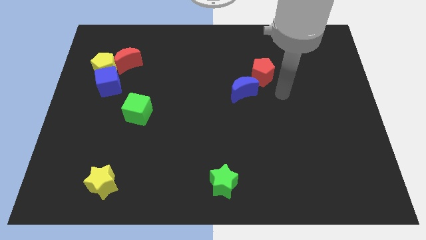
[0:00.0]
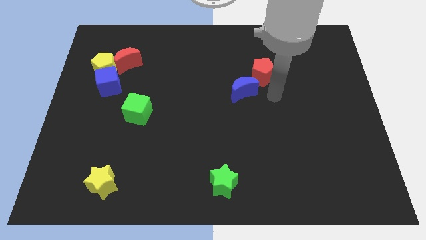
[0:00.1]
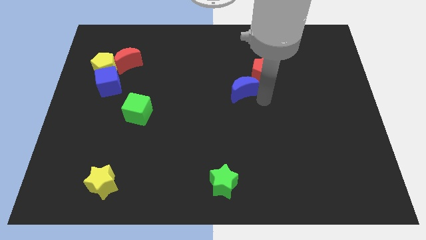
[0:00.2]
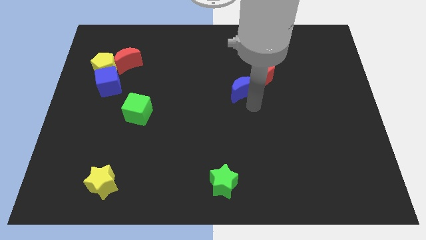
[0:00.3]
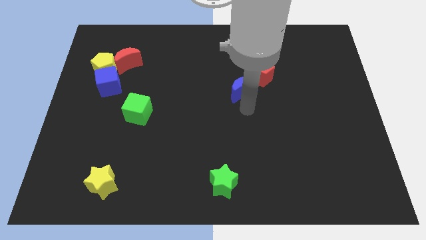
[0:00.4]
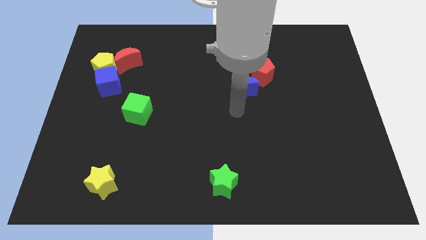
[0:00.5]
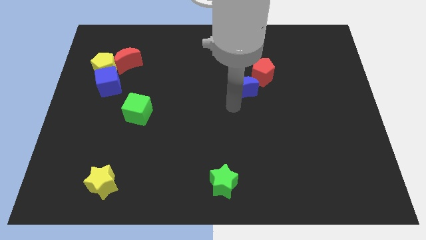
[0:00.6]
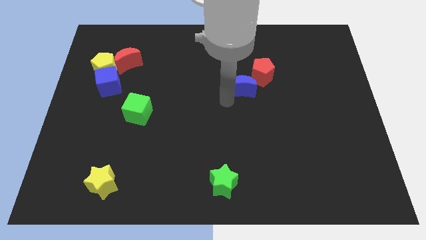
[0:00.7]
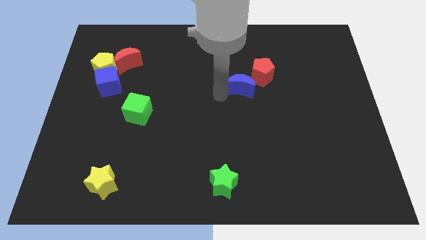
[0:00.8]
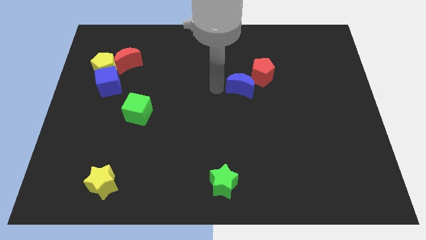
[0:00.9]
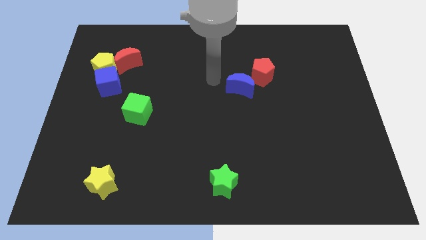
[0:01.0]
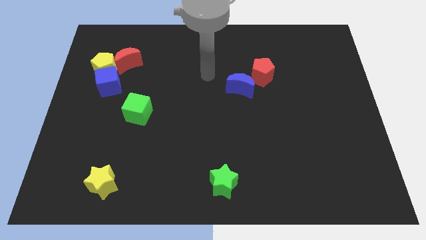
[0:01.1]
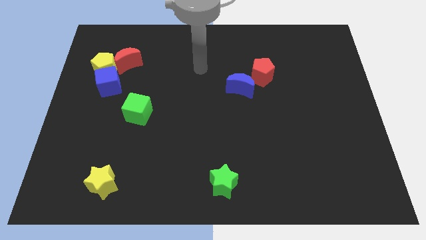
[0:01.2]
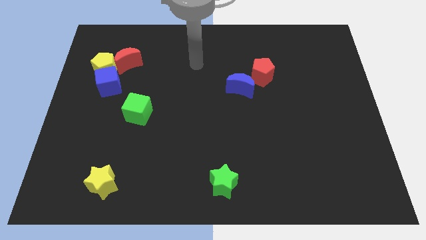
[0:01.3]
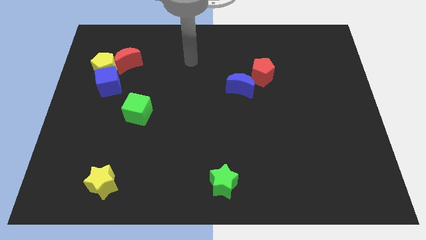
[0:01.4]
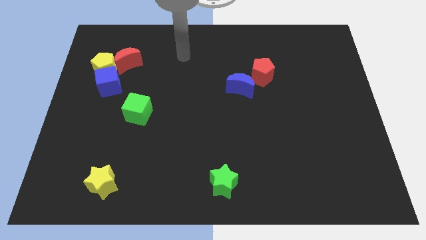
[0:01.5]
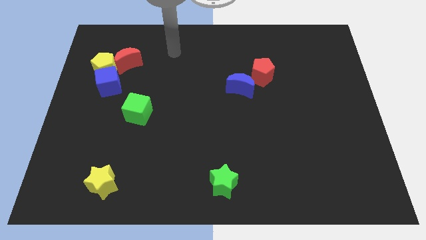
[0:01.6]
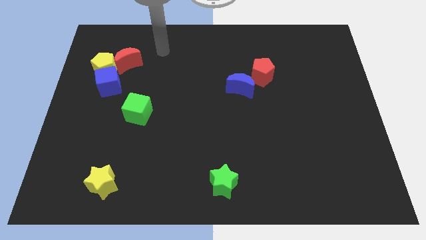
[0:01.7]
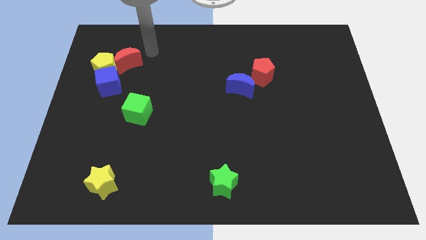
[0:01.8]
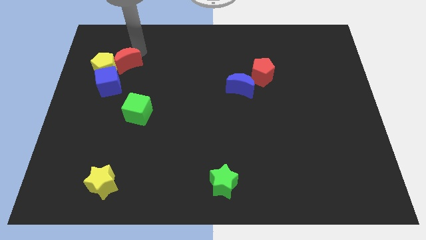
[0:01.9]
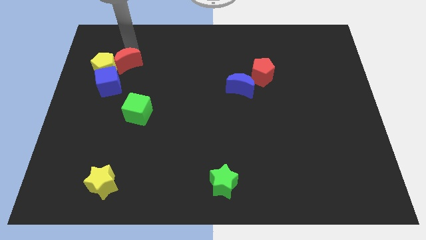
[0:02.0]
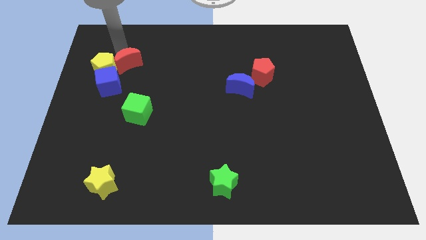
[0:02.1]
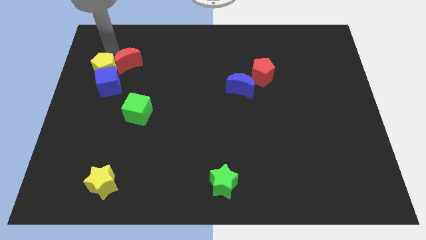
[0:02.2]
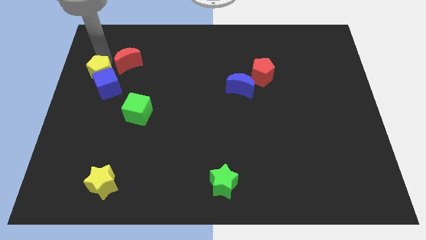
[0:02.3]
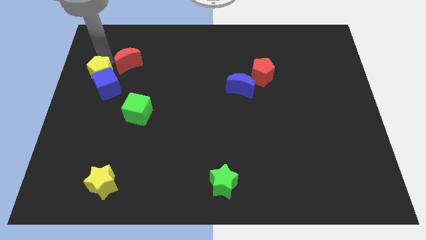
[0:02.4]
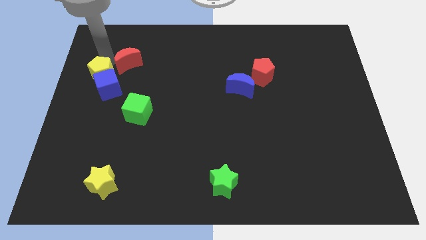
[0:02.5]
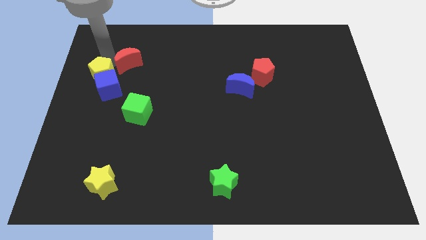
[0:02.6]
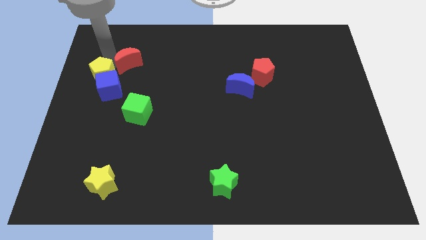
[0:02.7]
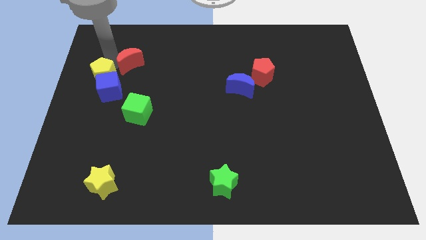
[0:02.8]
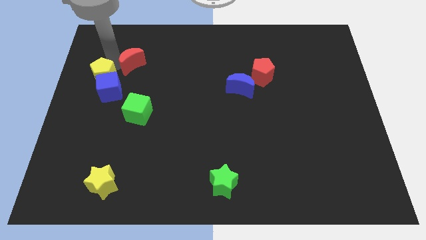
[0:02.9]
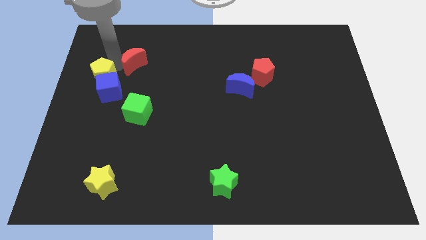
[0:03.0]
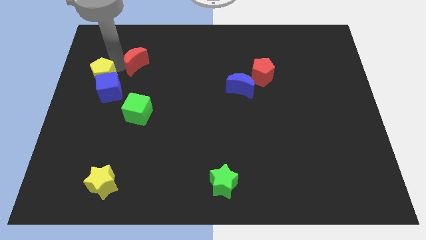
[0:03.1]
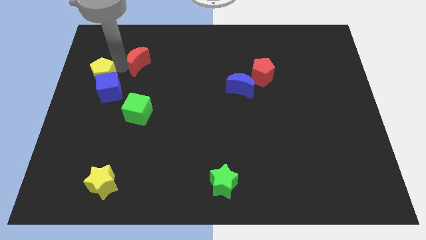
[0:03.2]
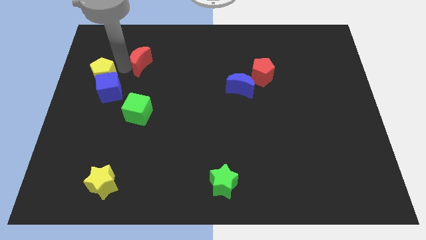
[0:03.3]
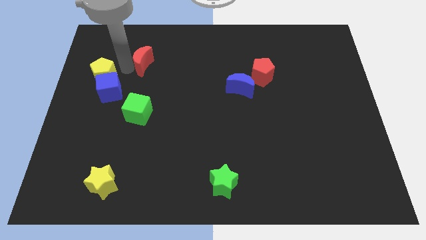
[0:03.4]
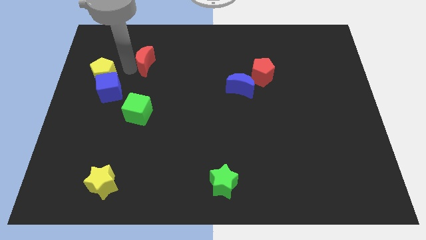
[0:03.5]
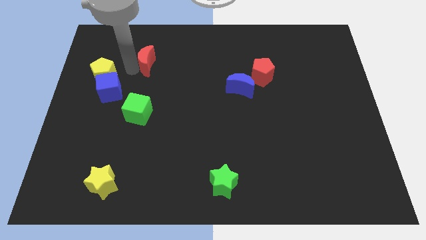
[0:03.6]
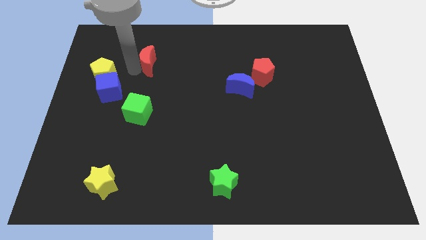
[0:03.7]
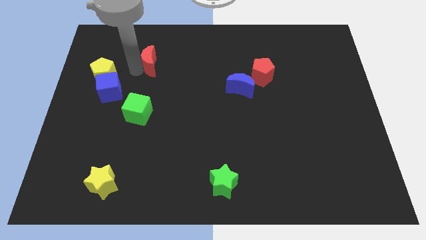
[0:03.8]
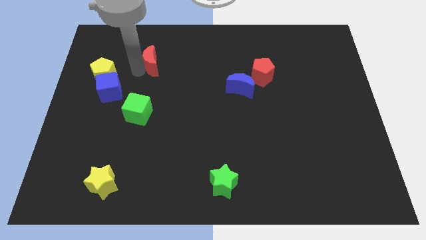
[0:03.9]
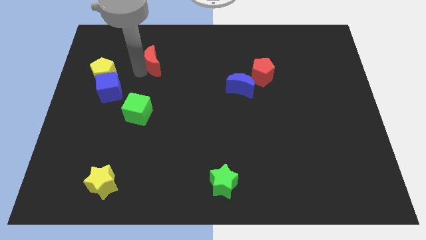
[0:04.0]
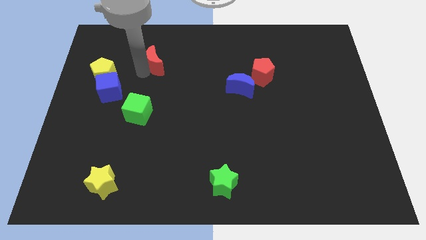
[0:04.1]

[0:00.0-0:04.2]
slide the red moon right slightly

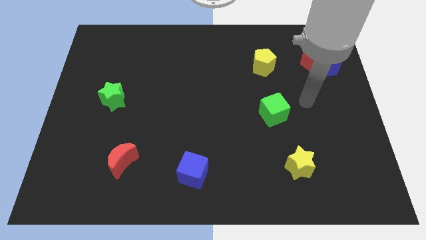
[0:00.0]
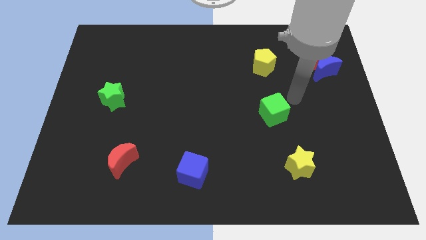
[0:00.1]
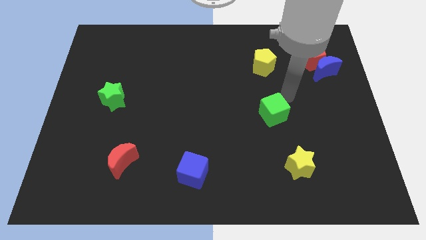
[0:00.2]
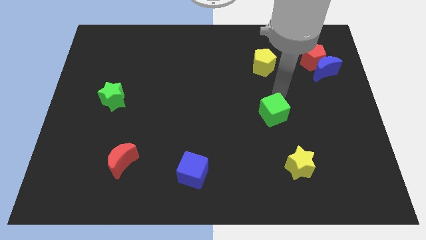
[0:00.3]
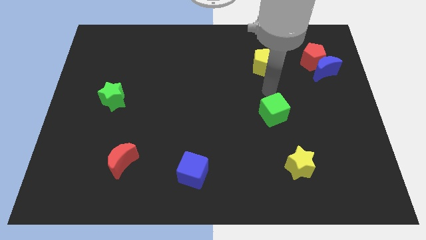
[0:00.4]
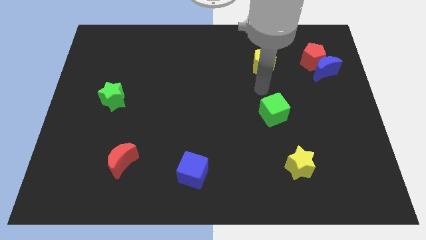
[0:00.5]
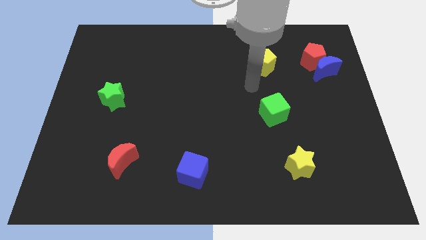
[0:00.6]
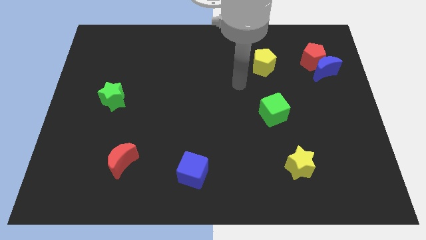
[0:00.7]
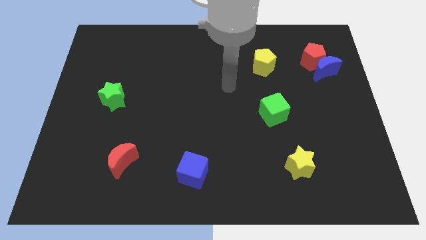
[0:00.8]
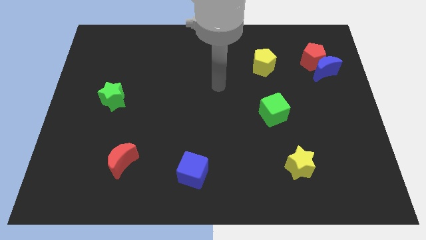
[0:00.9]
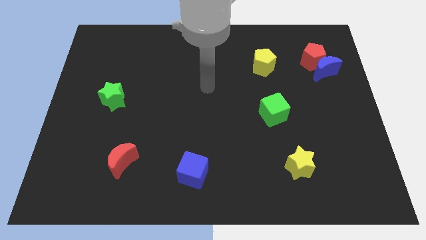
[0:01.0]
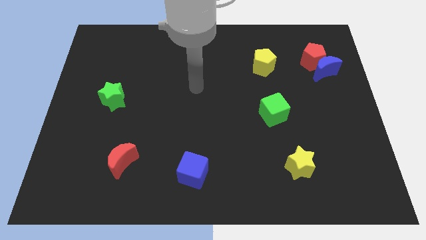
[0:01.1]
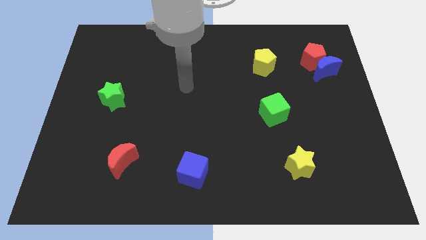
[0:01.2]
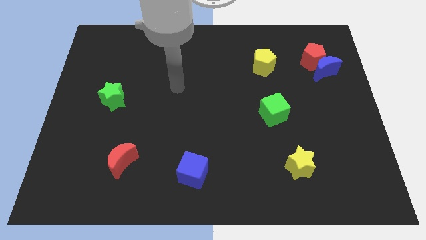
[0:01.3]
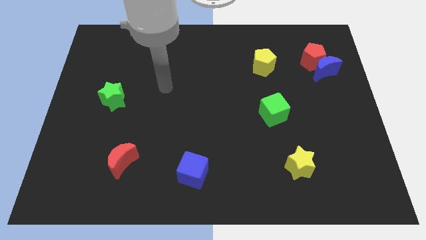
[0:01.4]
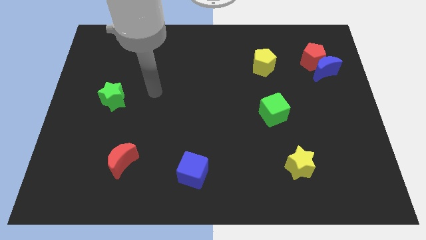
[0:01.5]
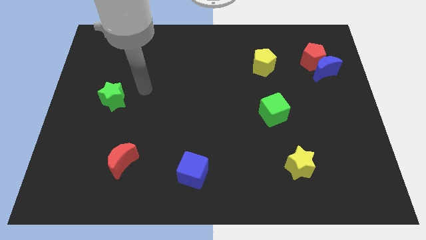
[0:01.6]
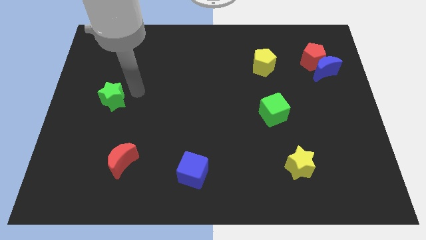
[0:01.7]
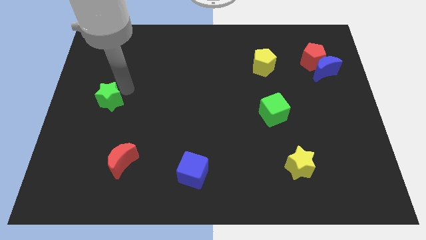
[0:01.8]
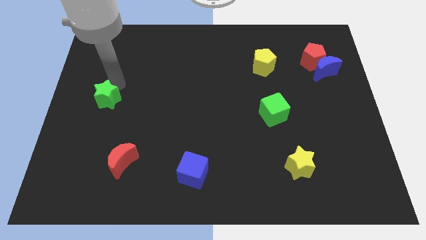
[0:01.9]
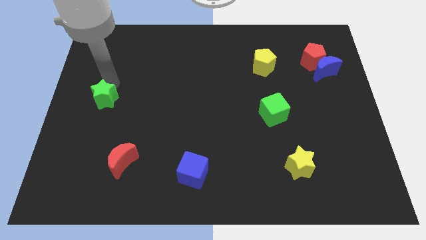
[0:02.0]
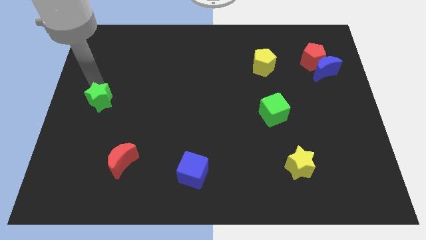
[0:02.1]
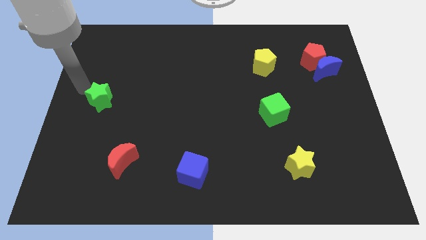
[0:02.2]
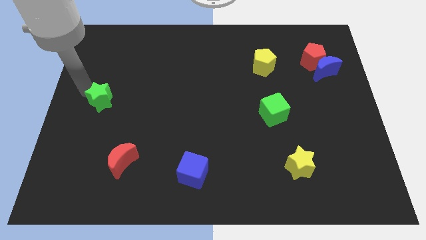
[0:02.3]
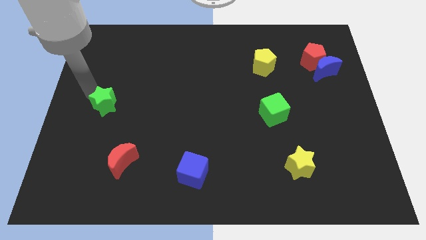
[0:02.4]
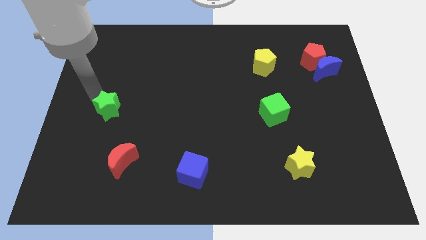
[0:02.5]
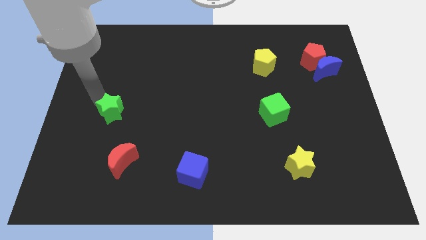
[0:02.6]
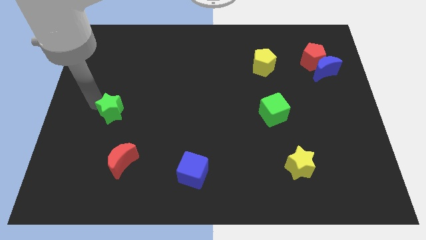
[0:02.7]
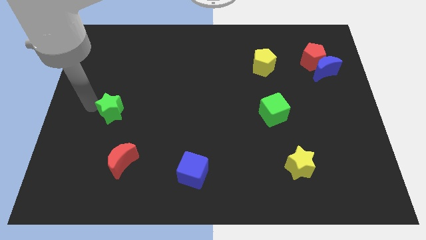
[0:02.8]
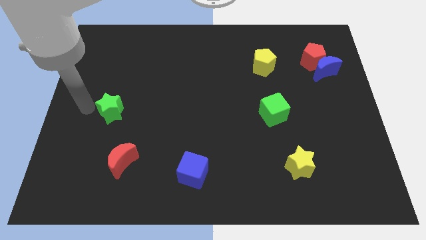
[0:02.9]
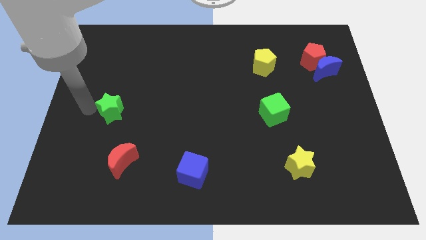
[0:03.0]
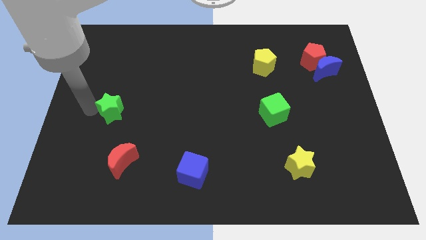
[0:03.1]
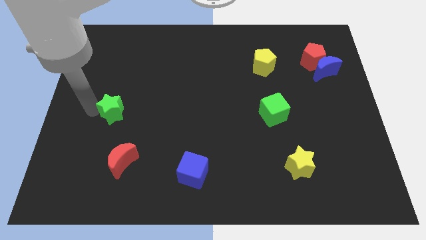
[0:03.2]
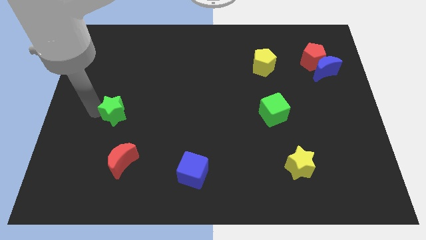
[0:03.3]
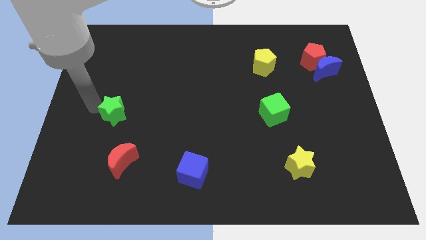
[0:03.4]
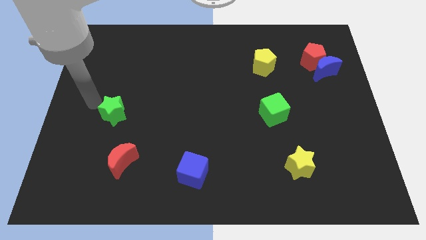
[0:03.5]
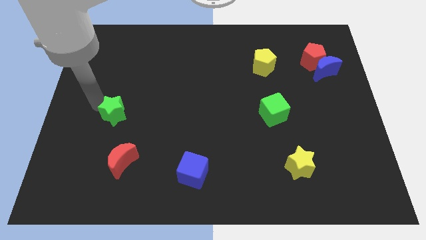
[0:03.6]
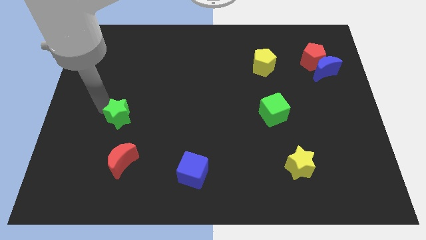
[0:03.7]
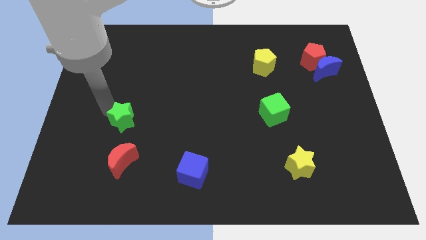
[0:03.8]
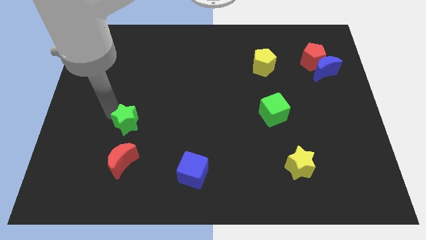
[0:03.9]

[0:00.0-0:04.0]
push the green star somewhat downwards and then to the right

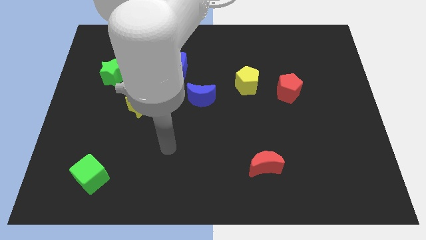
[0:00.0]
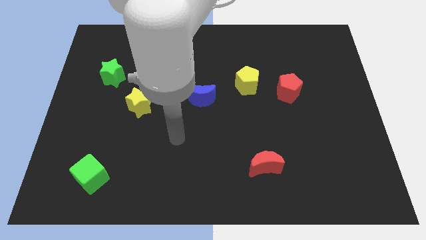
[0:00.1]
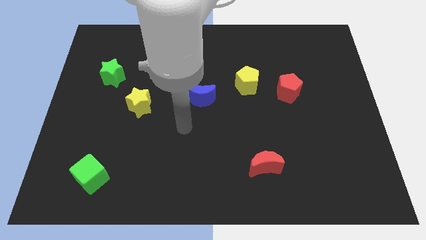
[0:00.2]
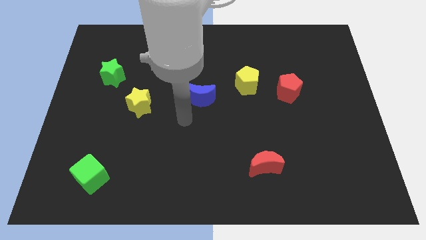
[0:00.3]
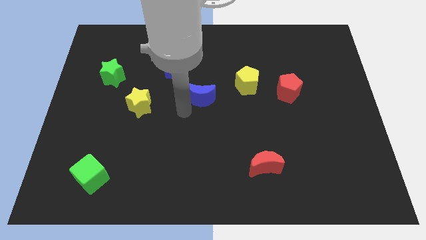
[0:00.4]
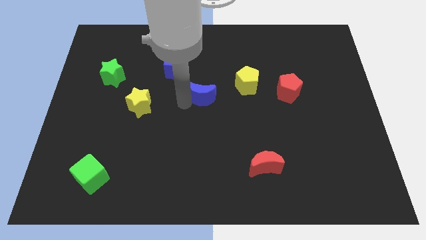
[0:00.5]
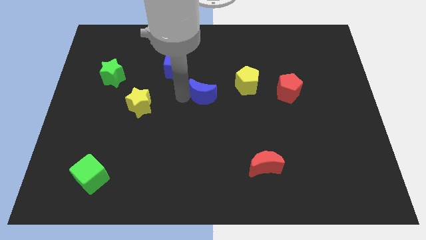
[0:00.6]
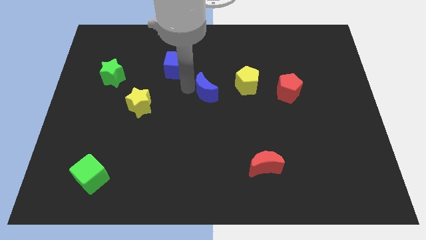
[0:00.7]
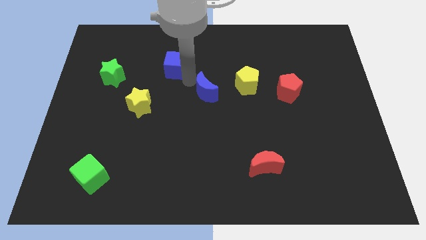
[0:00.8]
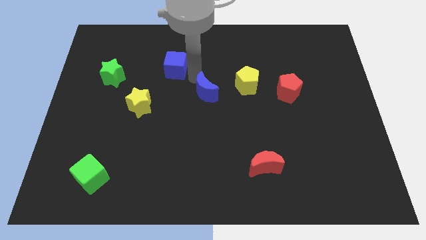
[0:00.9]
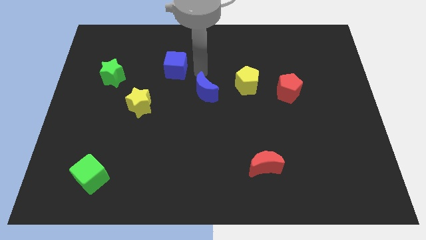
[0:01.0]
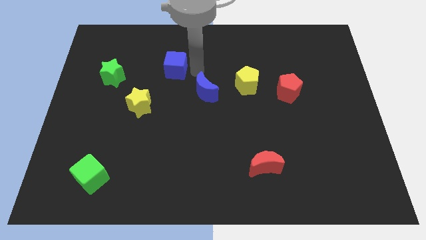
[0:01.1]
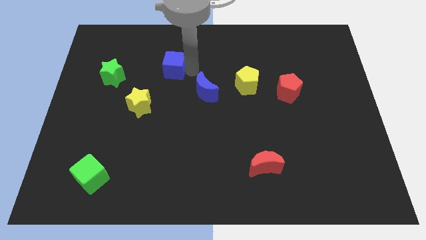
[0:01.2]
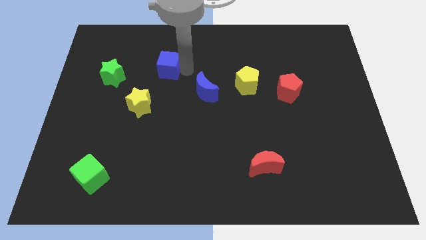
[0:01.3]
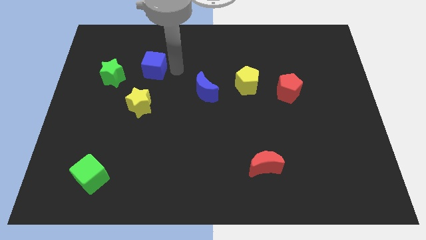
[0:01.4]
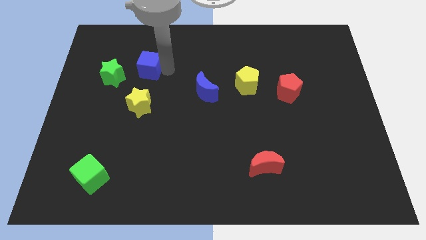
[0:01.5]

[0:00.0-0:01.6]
slide the blue cube a little left
